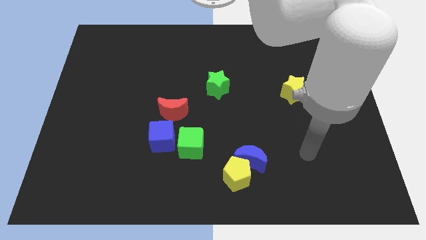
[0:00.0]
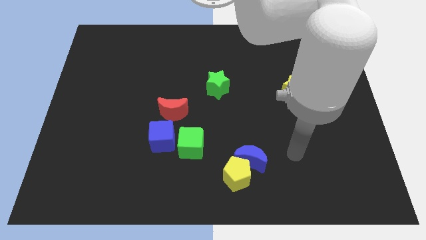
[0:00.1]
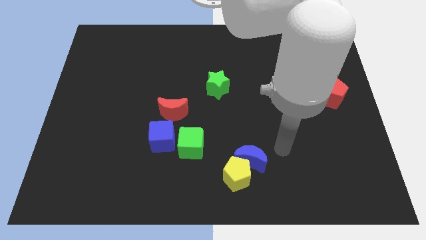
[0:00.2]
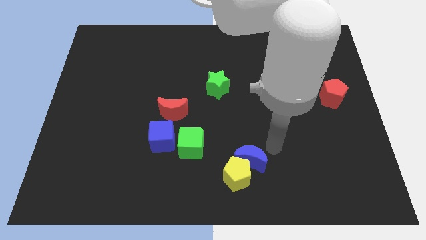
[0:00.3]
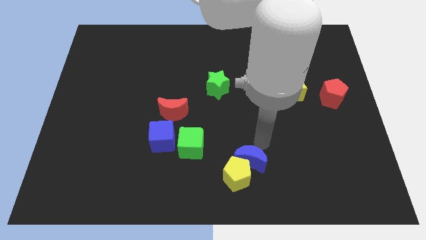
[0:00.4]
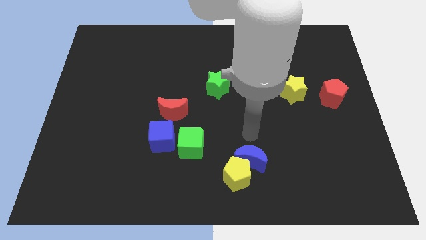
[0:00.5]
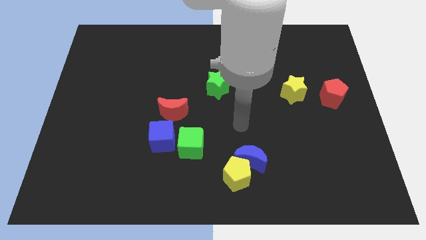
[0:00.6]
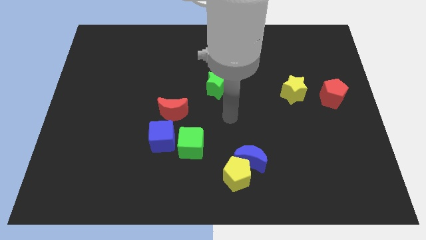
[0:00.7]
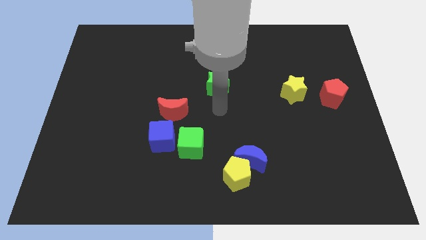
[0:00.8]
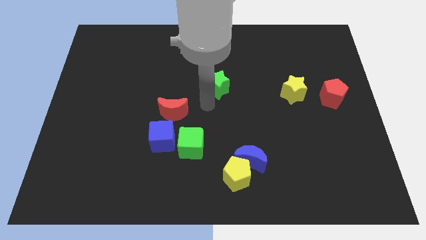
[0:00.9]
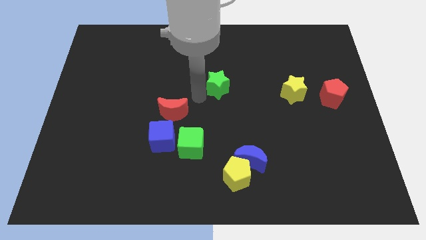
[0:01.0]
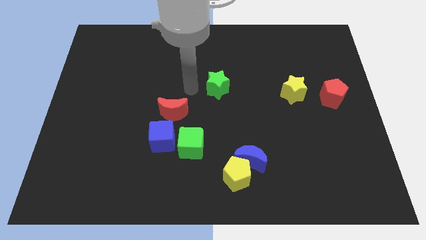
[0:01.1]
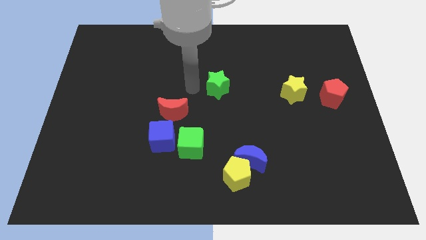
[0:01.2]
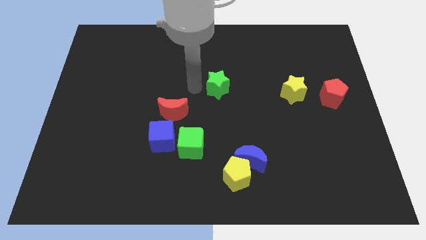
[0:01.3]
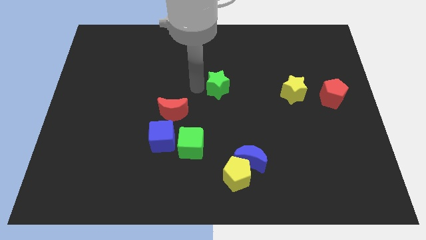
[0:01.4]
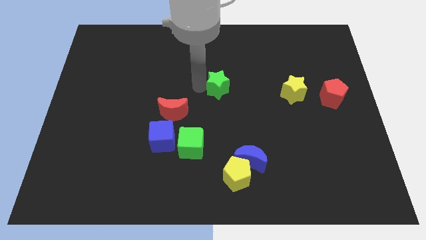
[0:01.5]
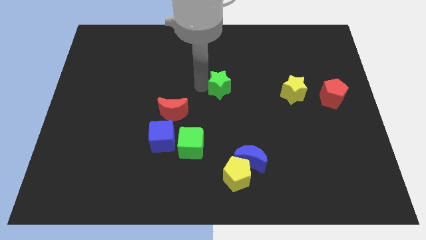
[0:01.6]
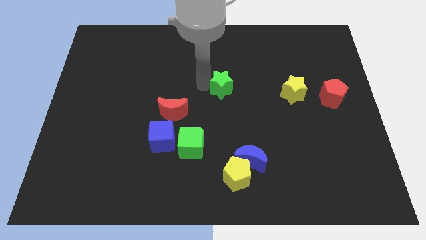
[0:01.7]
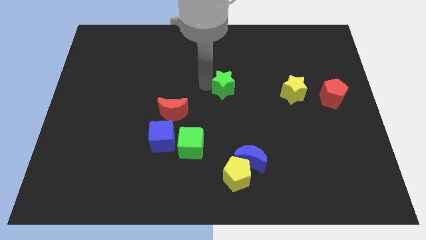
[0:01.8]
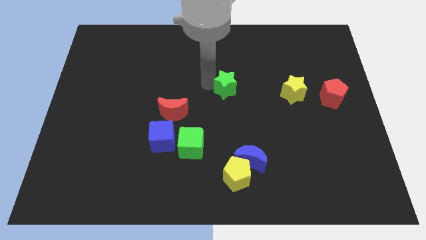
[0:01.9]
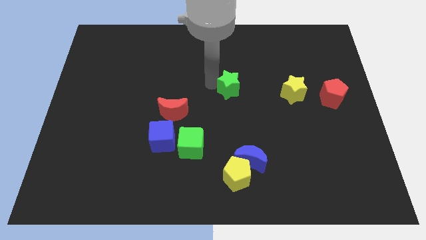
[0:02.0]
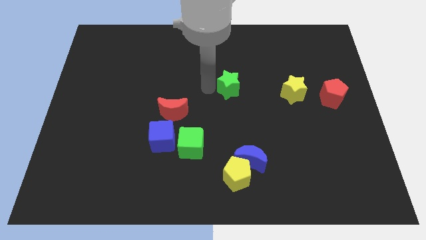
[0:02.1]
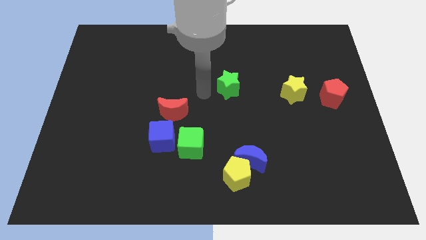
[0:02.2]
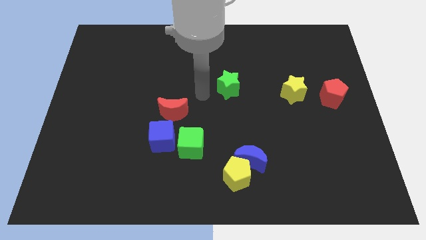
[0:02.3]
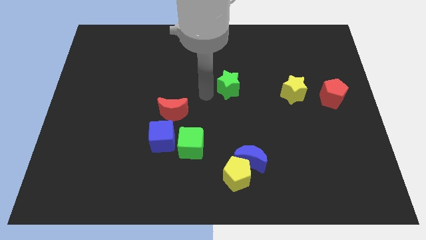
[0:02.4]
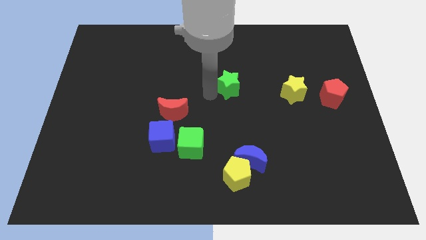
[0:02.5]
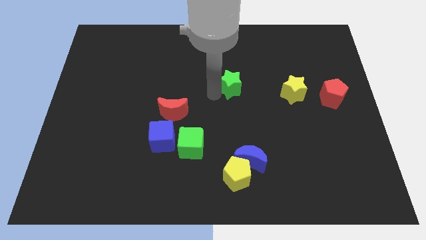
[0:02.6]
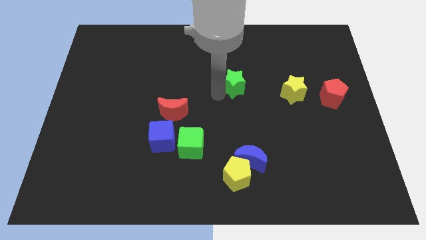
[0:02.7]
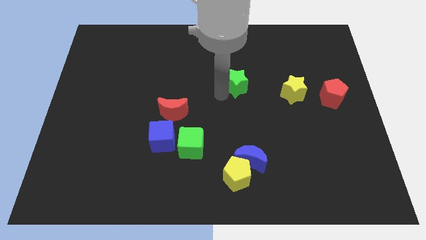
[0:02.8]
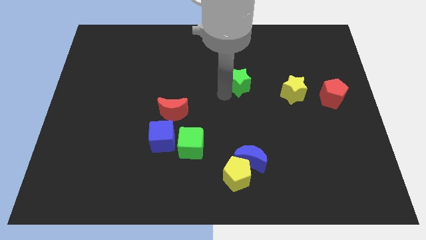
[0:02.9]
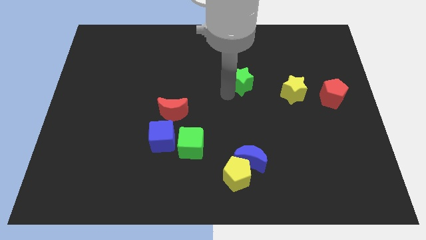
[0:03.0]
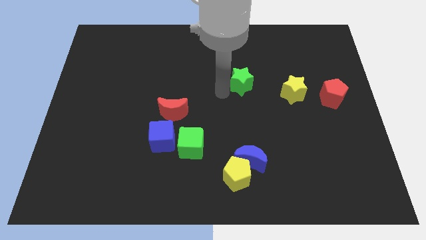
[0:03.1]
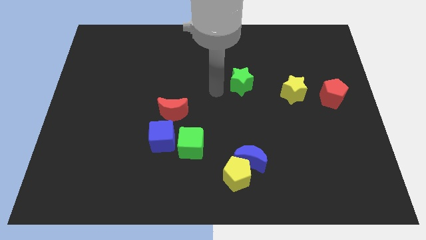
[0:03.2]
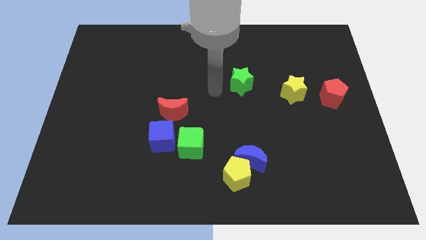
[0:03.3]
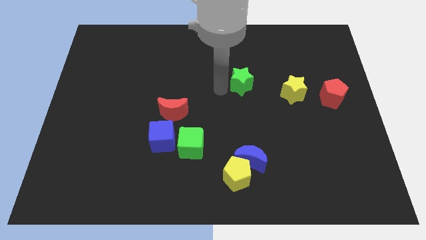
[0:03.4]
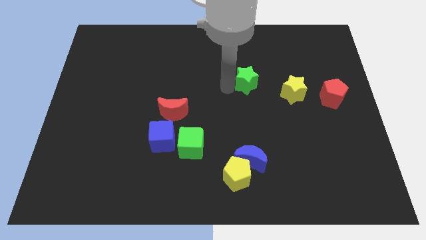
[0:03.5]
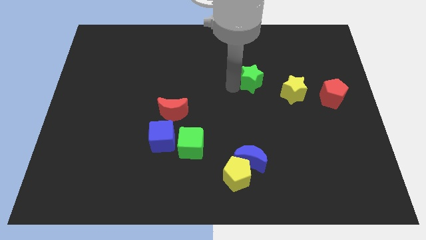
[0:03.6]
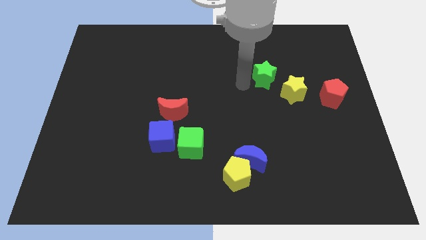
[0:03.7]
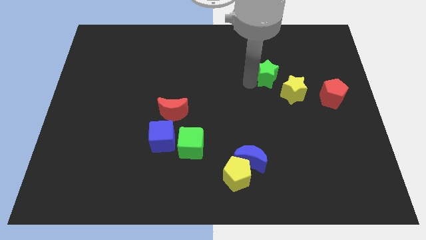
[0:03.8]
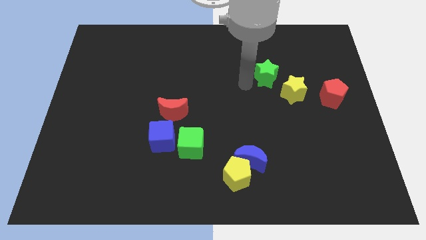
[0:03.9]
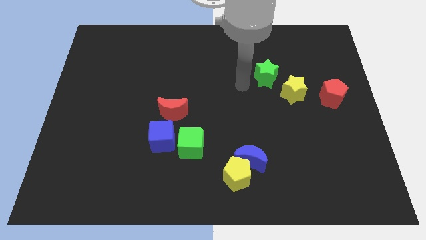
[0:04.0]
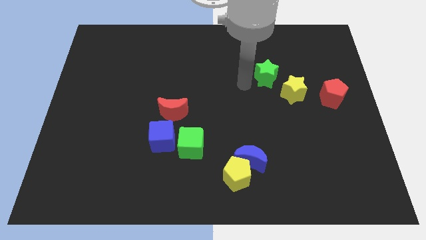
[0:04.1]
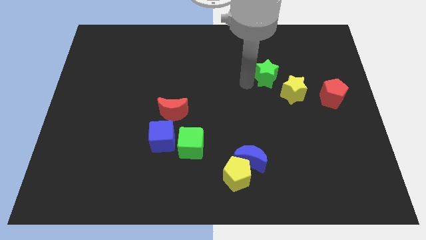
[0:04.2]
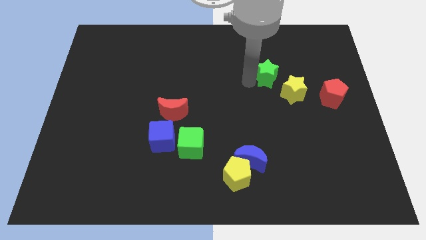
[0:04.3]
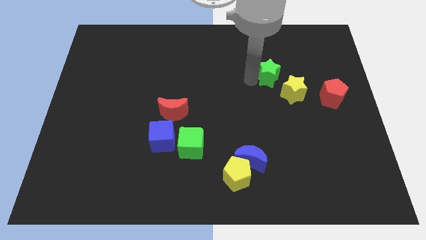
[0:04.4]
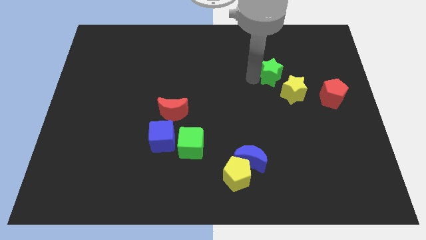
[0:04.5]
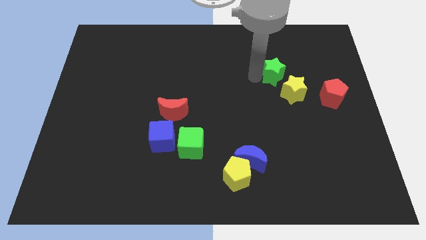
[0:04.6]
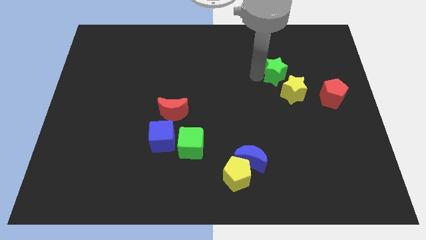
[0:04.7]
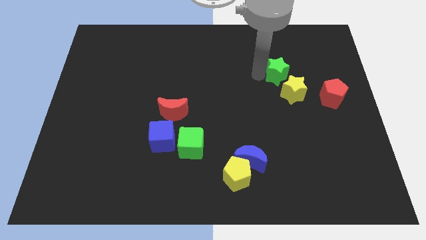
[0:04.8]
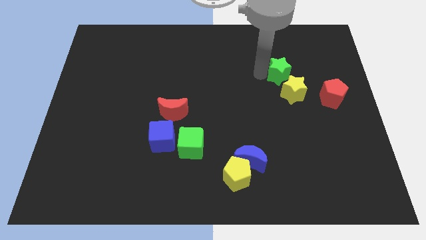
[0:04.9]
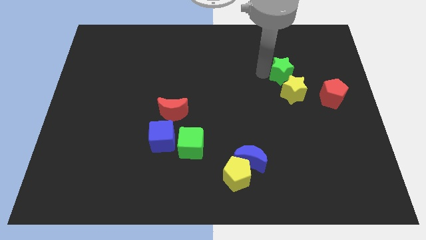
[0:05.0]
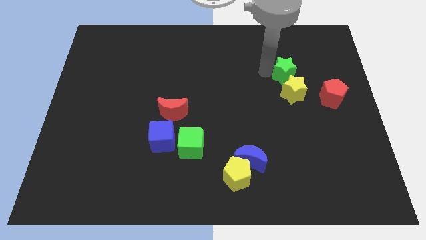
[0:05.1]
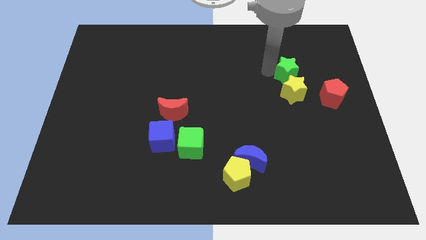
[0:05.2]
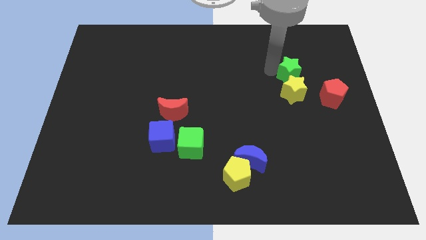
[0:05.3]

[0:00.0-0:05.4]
move the green star to the top left side of the red pentagon

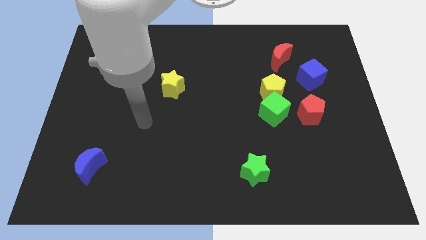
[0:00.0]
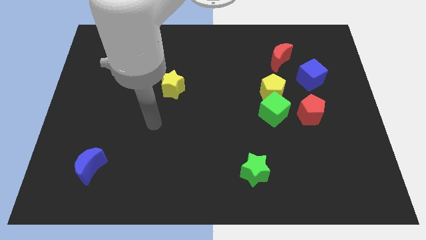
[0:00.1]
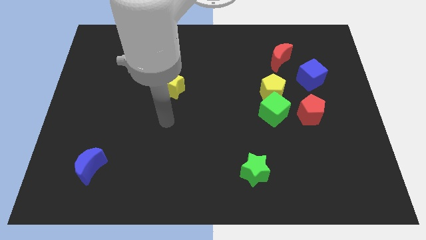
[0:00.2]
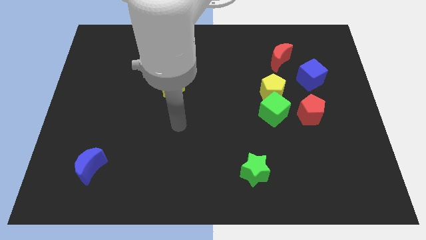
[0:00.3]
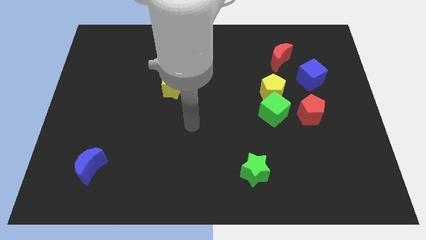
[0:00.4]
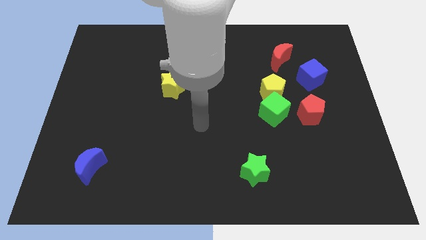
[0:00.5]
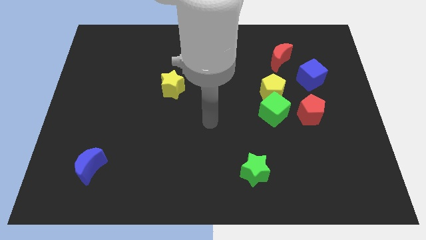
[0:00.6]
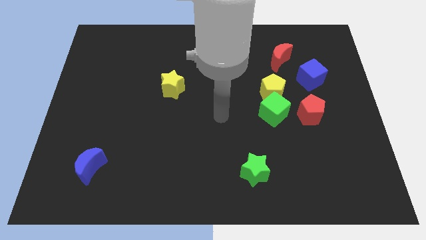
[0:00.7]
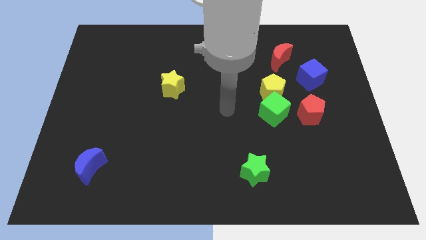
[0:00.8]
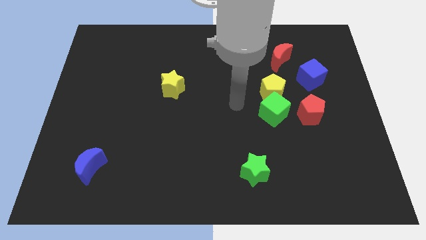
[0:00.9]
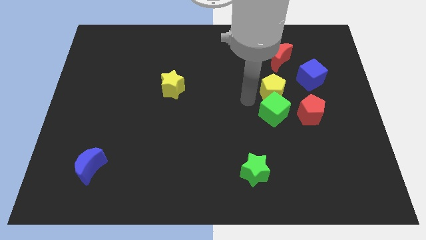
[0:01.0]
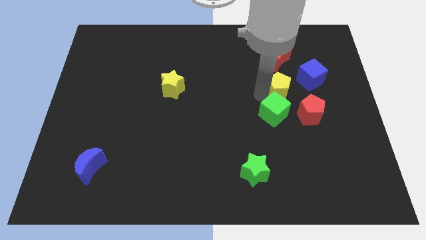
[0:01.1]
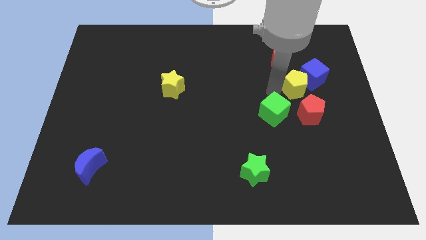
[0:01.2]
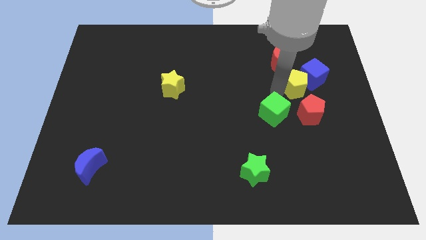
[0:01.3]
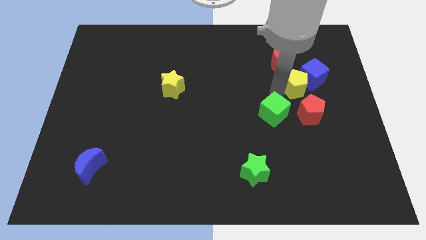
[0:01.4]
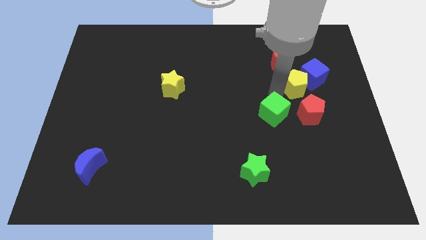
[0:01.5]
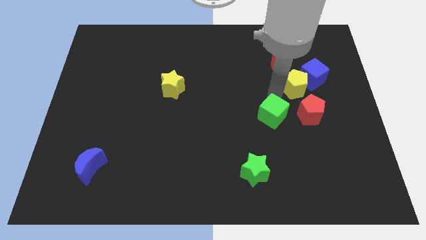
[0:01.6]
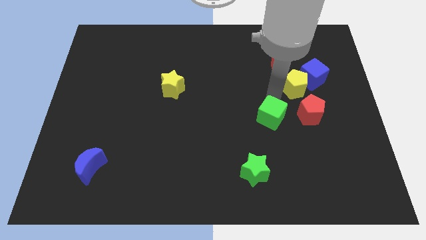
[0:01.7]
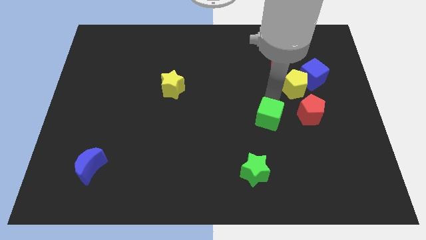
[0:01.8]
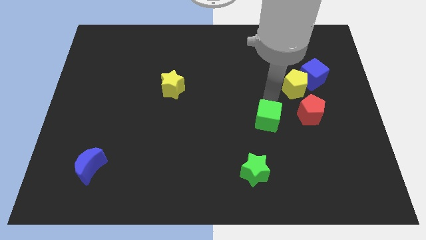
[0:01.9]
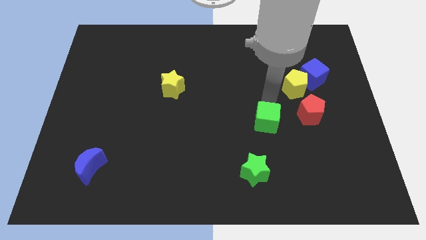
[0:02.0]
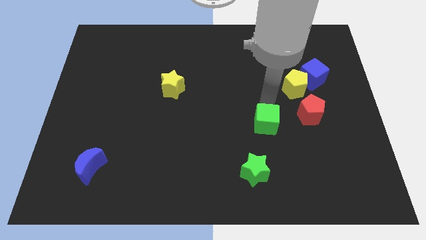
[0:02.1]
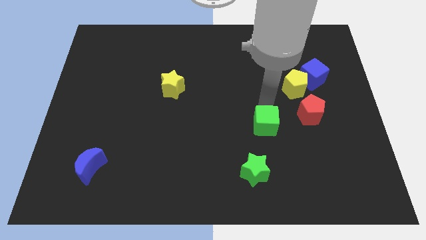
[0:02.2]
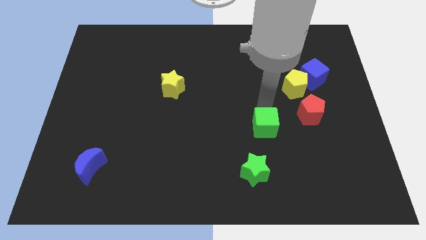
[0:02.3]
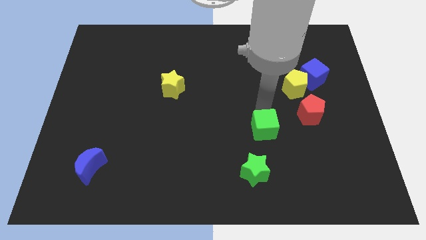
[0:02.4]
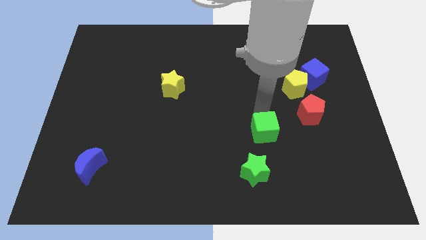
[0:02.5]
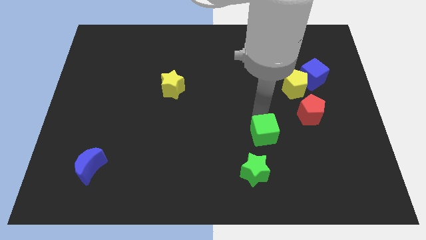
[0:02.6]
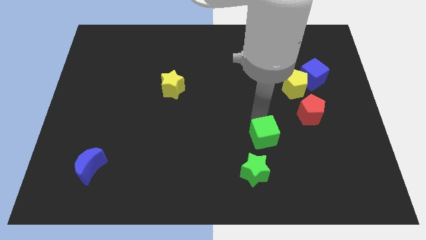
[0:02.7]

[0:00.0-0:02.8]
put the green cube to the top right of the green star
